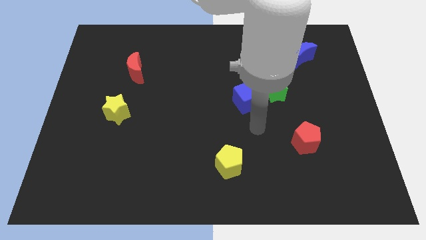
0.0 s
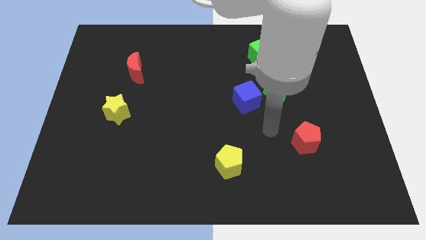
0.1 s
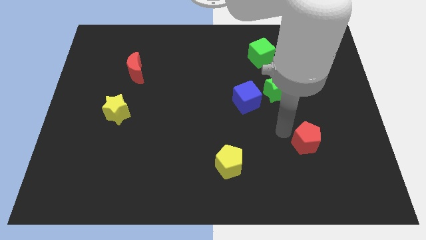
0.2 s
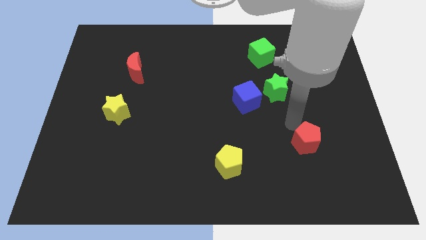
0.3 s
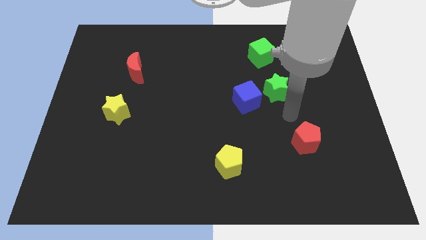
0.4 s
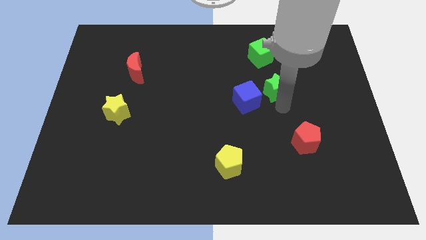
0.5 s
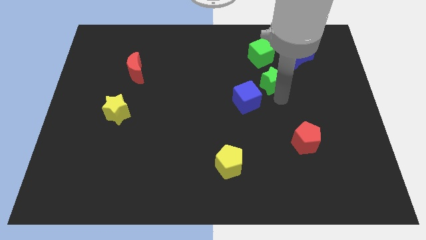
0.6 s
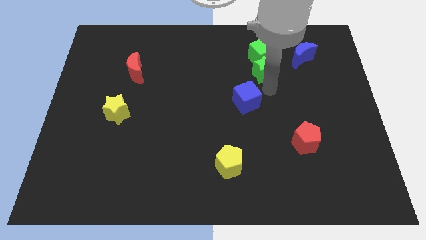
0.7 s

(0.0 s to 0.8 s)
move the blue cube away from the green star

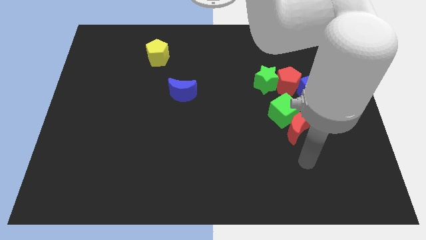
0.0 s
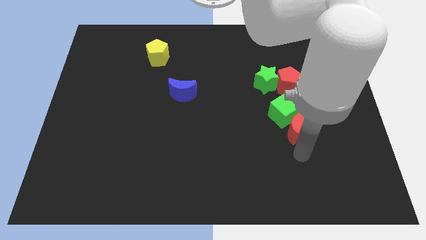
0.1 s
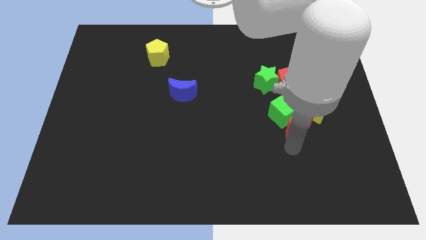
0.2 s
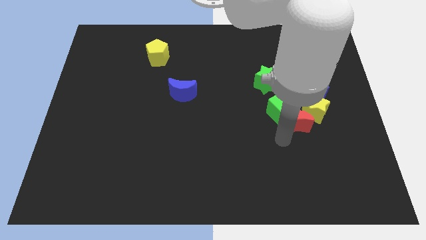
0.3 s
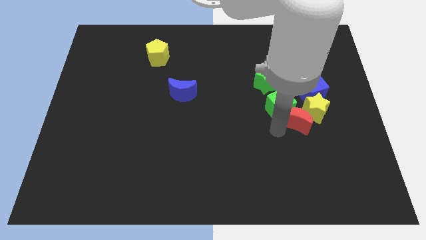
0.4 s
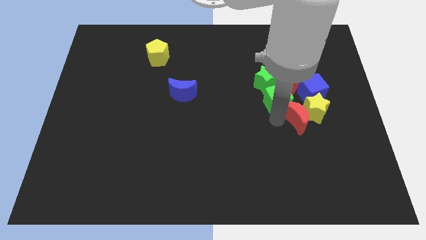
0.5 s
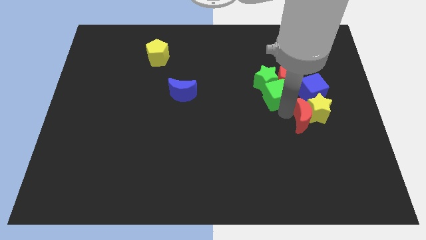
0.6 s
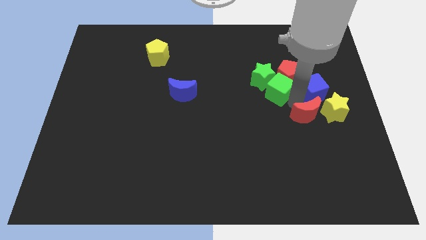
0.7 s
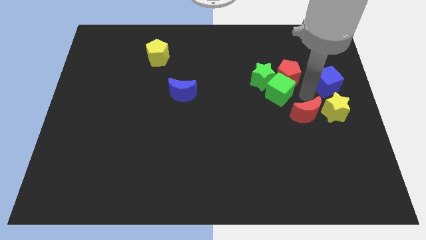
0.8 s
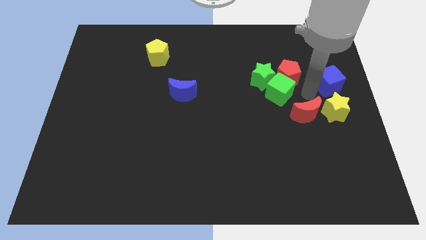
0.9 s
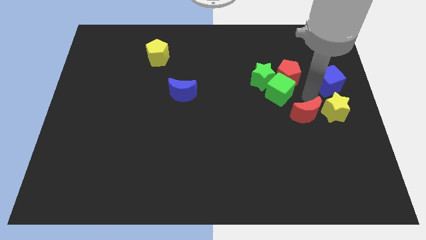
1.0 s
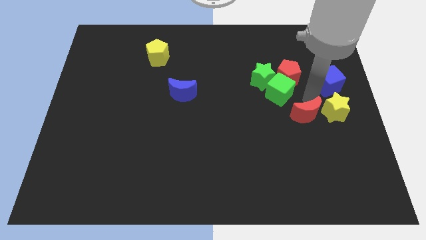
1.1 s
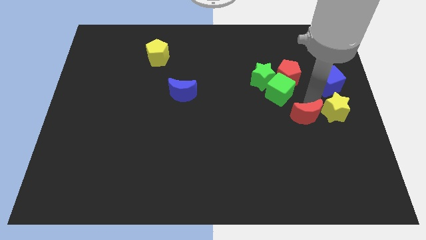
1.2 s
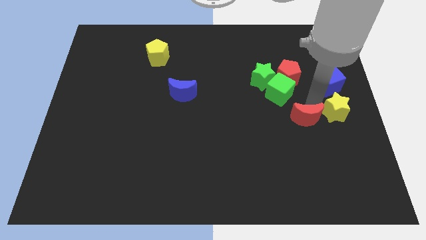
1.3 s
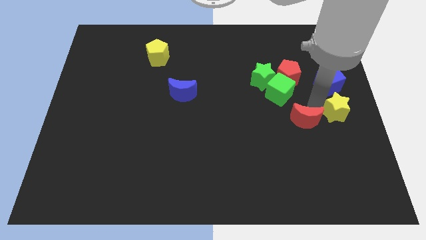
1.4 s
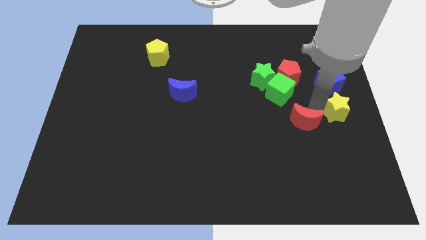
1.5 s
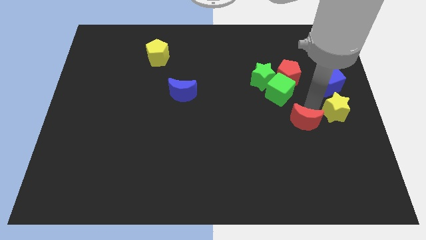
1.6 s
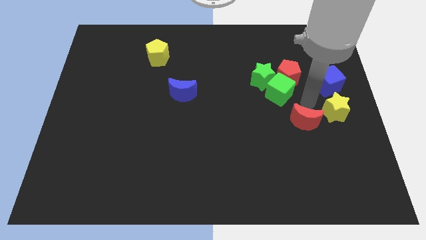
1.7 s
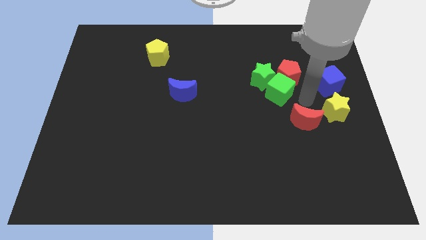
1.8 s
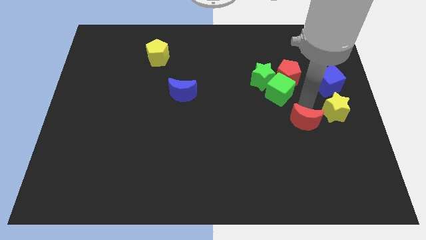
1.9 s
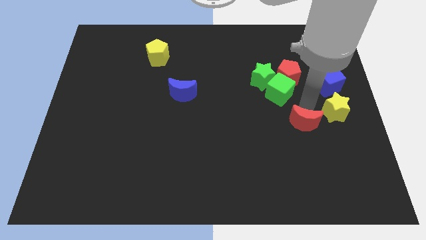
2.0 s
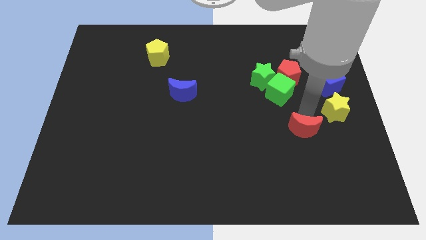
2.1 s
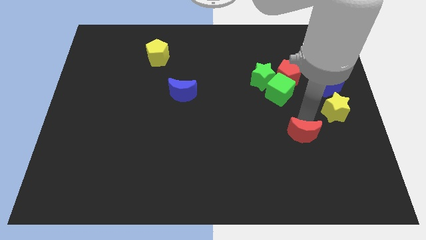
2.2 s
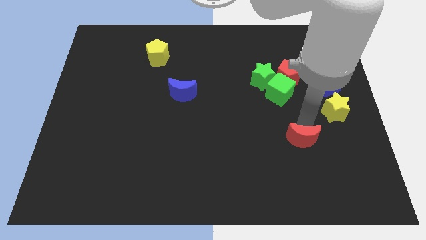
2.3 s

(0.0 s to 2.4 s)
pull the red moon apart from the green cube and yellow star

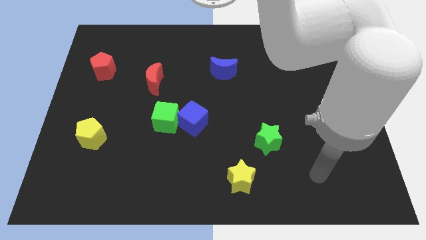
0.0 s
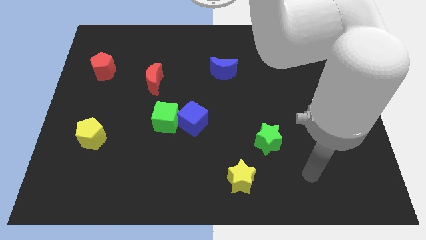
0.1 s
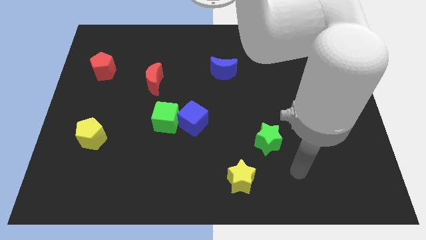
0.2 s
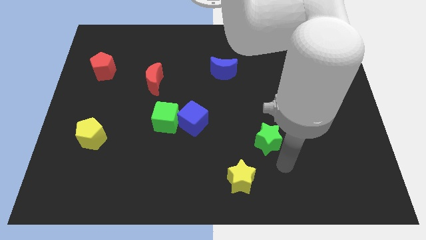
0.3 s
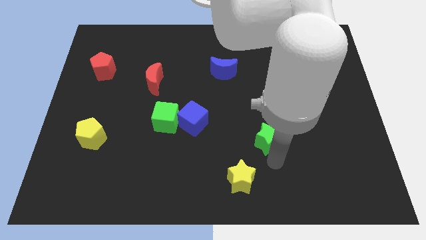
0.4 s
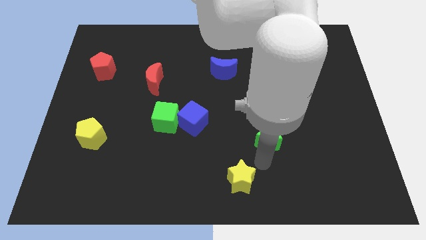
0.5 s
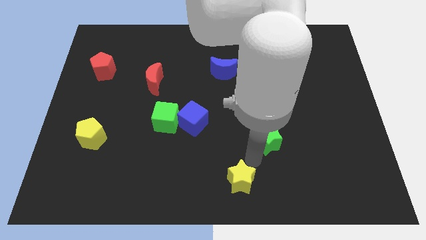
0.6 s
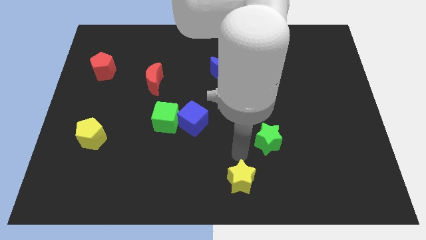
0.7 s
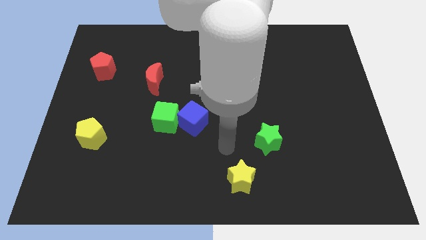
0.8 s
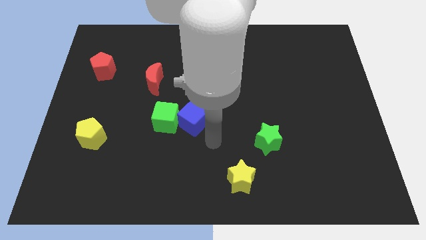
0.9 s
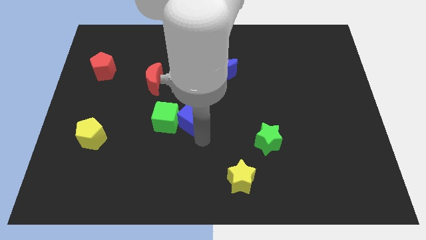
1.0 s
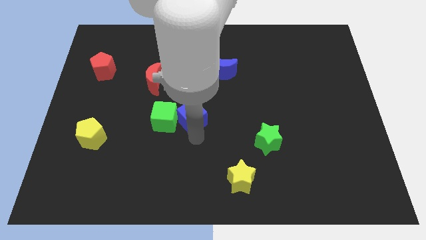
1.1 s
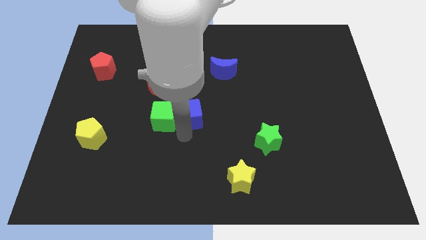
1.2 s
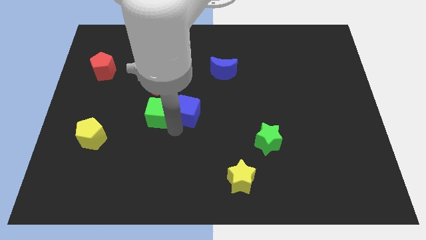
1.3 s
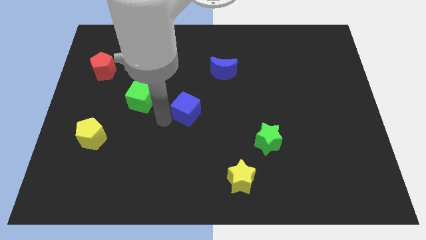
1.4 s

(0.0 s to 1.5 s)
move the blue cube away from the green cube

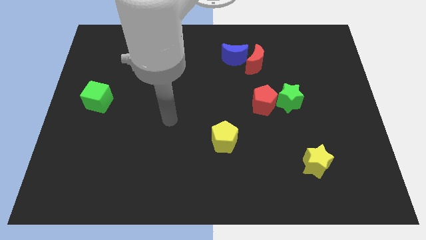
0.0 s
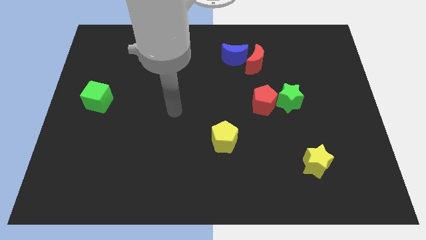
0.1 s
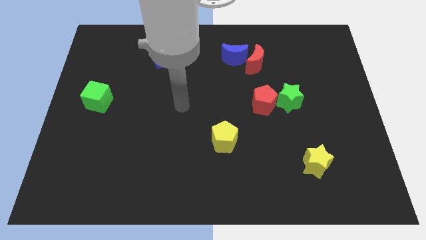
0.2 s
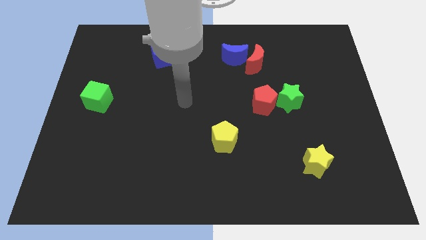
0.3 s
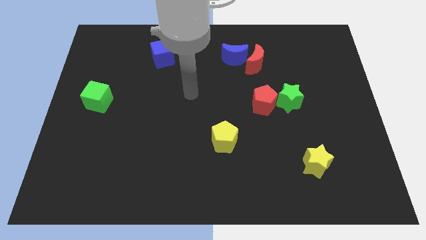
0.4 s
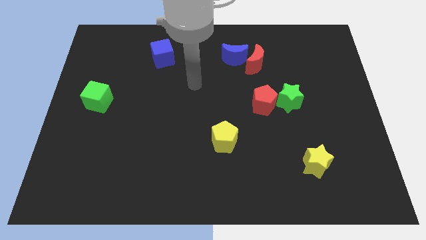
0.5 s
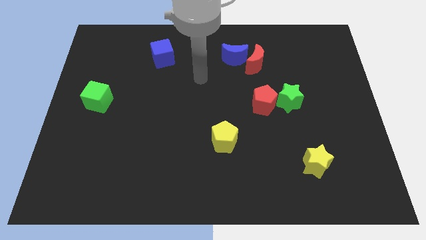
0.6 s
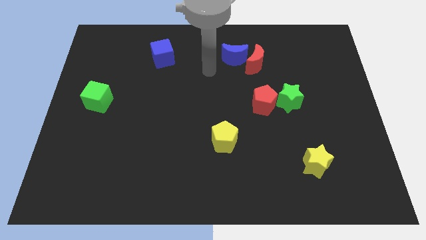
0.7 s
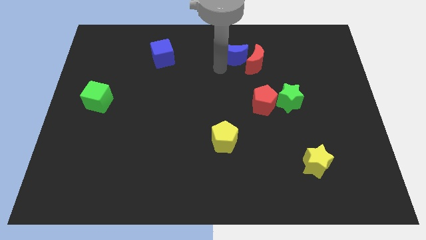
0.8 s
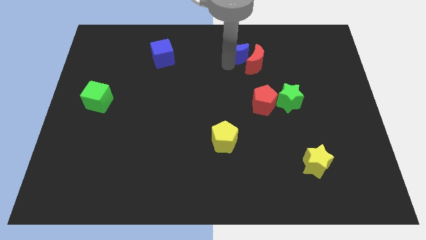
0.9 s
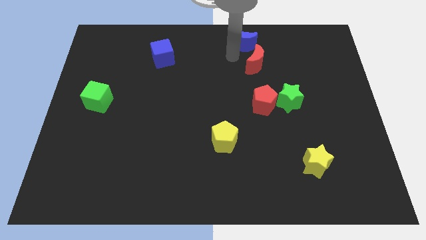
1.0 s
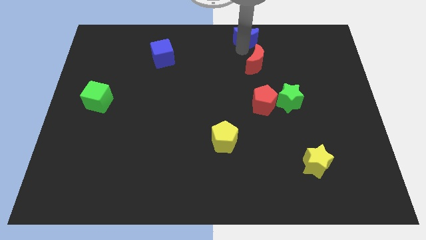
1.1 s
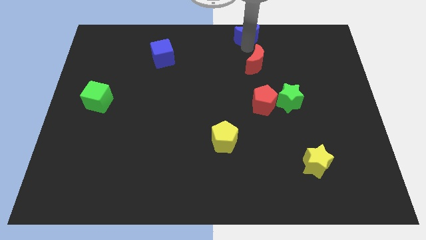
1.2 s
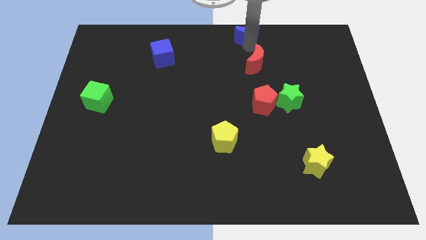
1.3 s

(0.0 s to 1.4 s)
move the red moon away from the blue moon

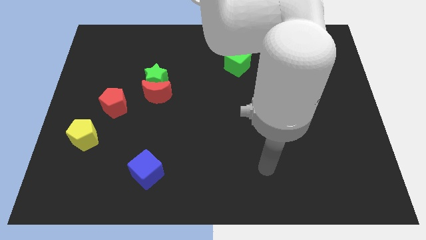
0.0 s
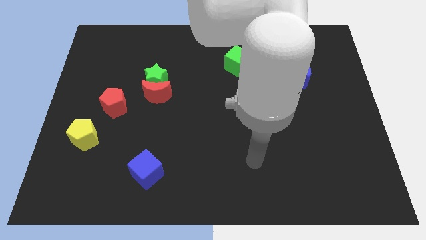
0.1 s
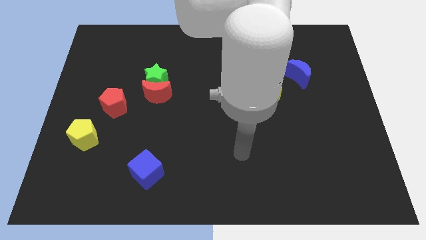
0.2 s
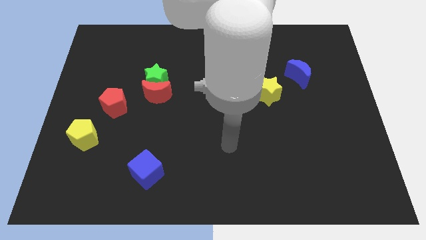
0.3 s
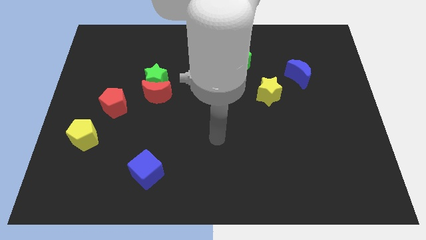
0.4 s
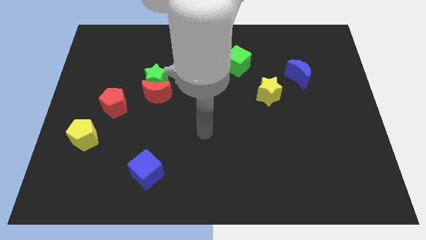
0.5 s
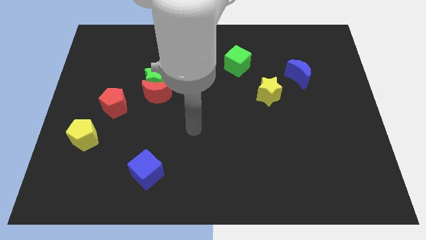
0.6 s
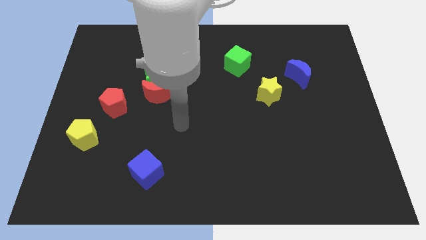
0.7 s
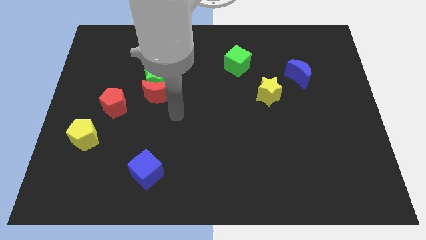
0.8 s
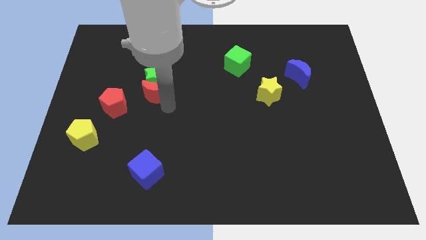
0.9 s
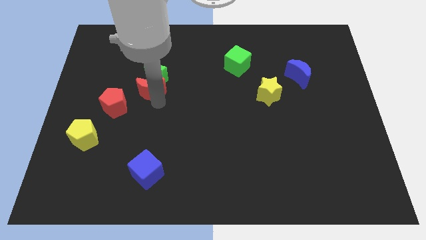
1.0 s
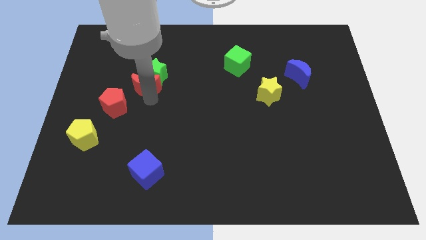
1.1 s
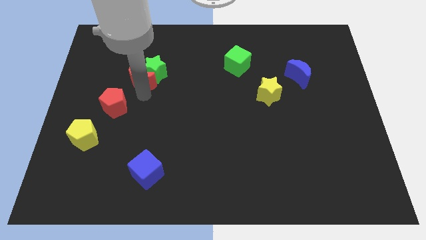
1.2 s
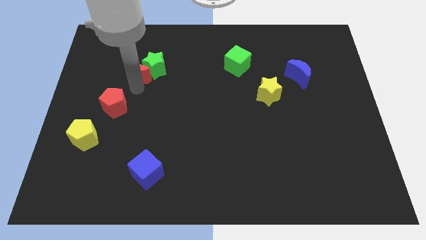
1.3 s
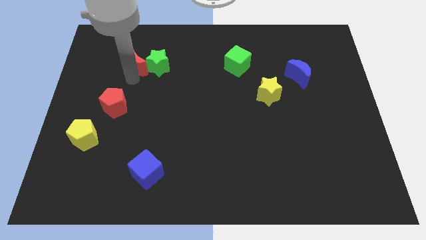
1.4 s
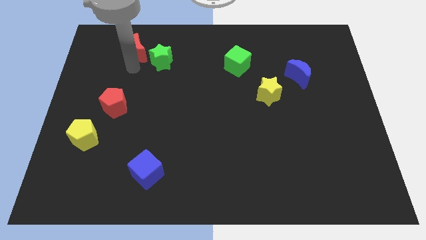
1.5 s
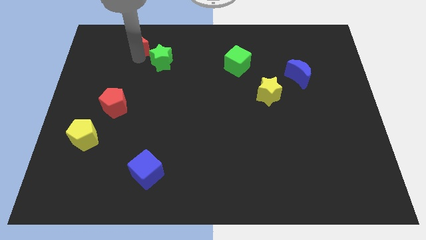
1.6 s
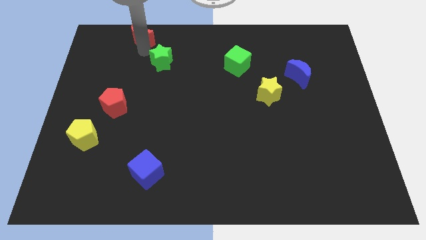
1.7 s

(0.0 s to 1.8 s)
move the green star away from the red moon

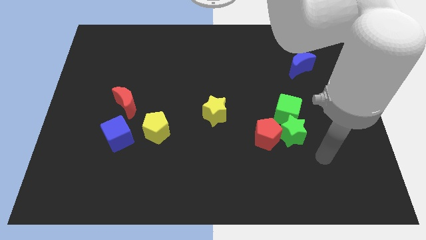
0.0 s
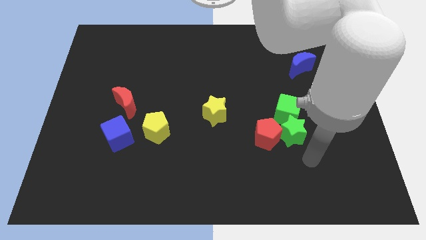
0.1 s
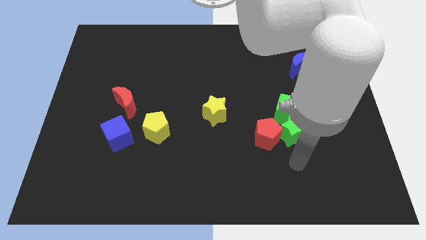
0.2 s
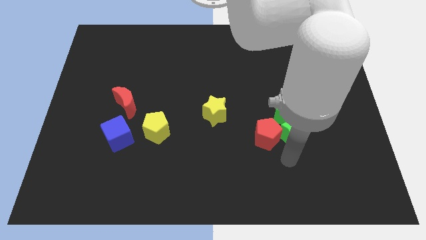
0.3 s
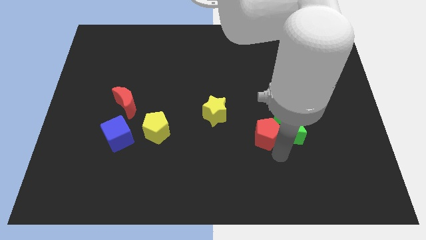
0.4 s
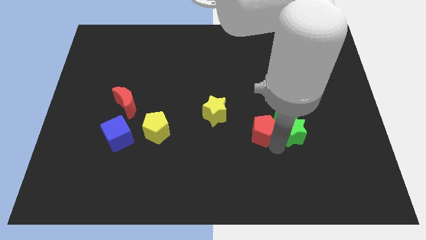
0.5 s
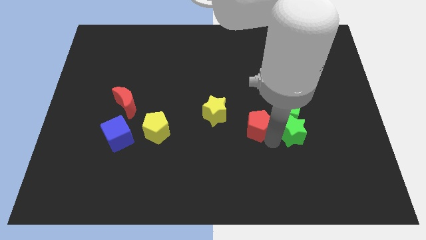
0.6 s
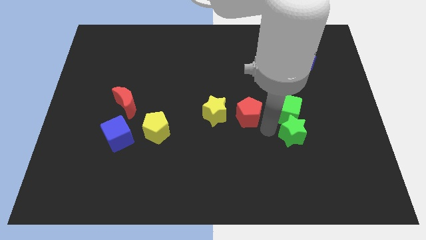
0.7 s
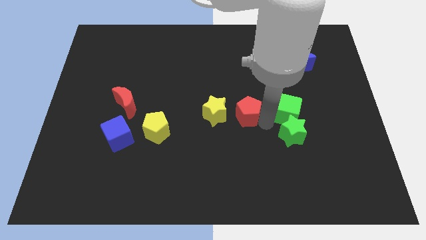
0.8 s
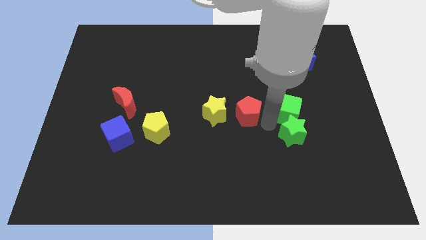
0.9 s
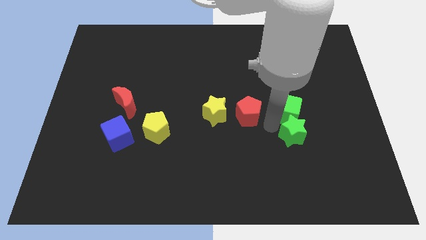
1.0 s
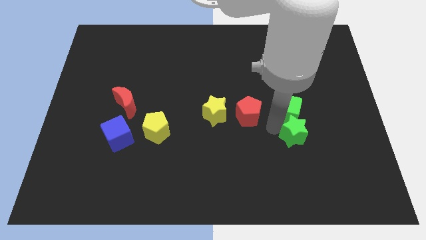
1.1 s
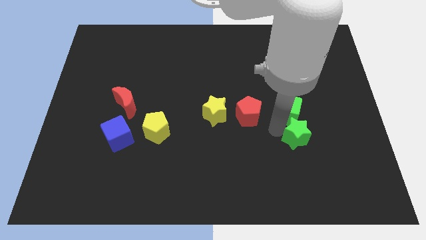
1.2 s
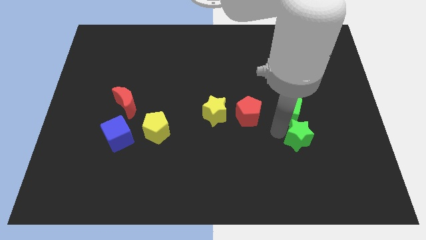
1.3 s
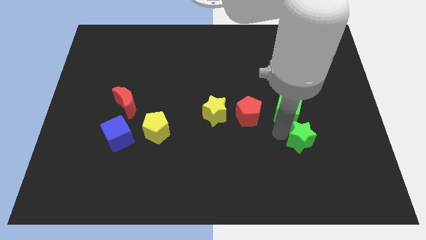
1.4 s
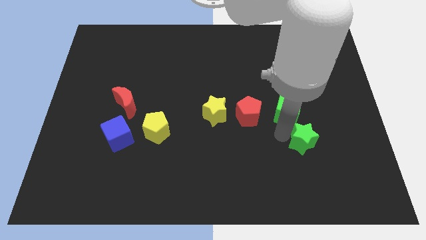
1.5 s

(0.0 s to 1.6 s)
separate the green star from the green cube and red pentagon
